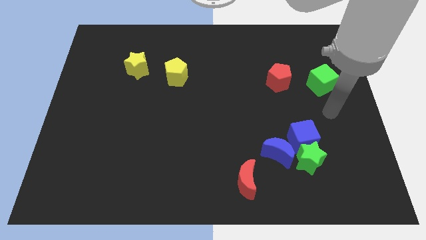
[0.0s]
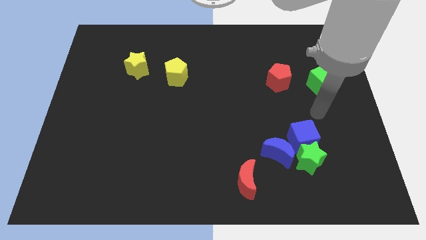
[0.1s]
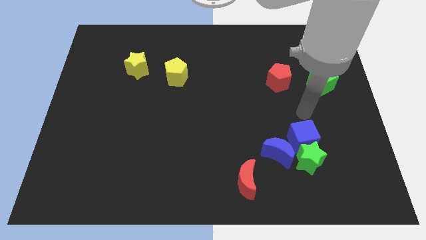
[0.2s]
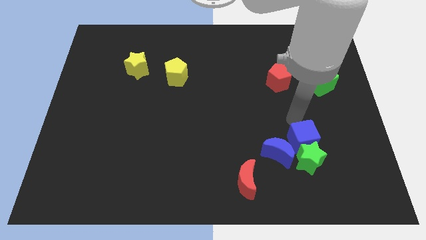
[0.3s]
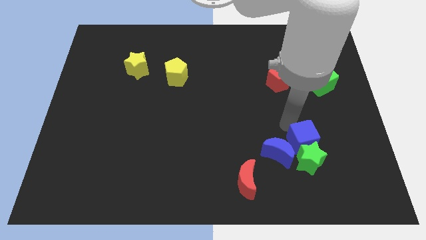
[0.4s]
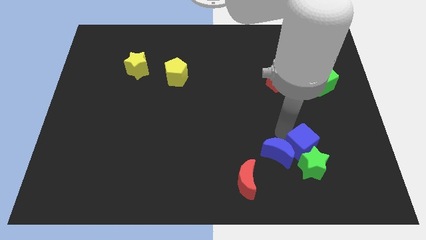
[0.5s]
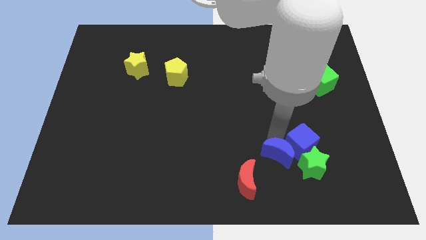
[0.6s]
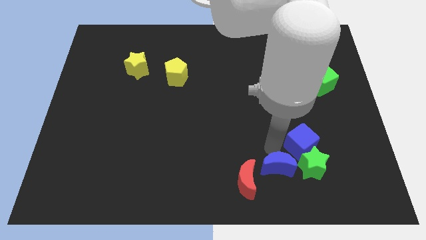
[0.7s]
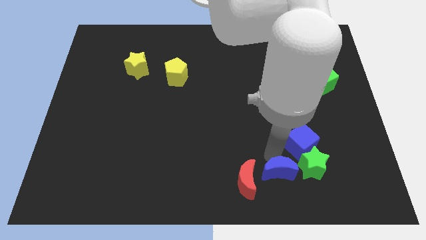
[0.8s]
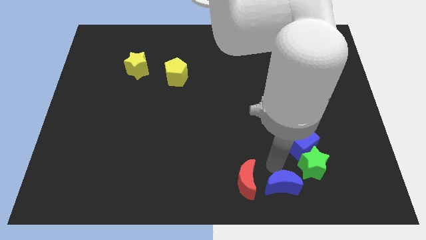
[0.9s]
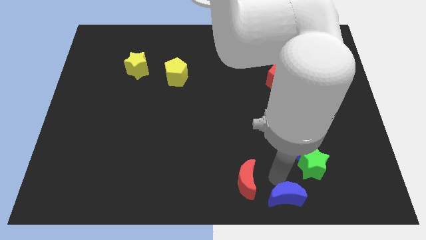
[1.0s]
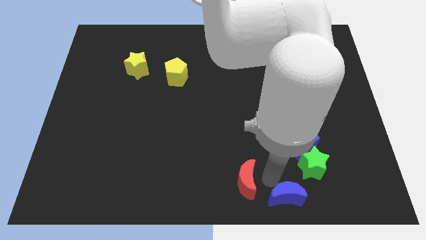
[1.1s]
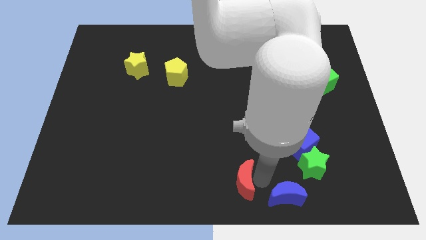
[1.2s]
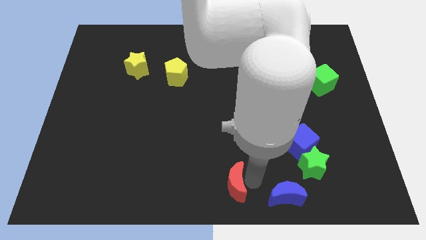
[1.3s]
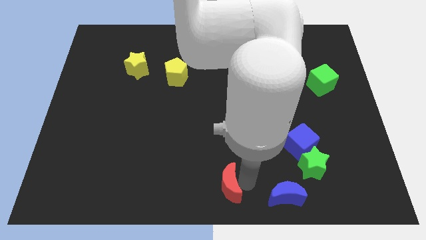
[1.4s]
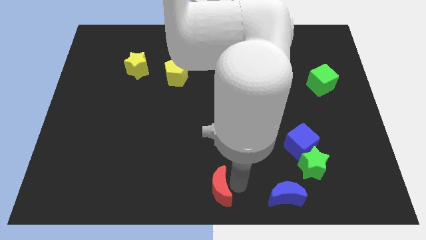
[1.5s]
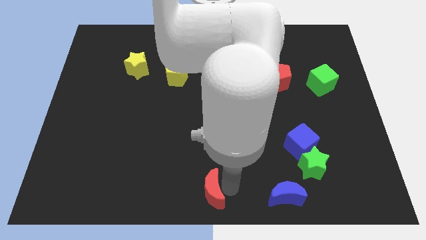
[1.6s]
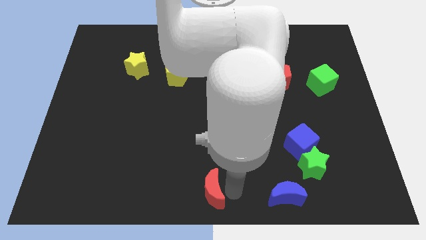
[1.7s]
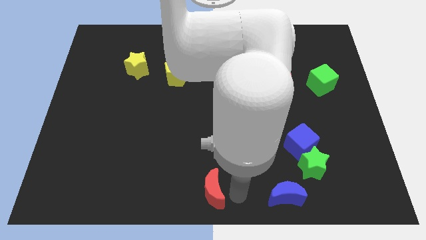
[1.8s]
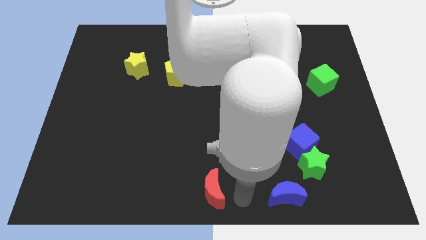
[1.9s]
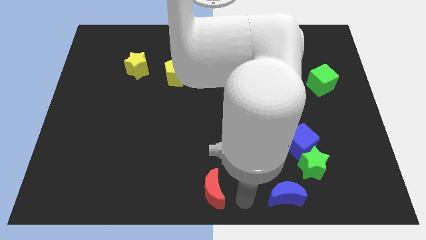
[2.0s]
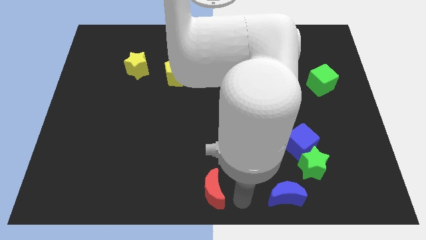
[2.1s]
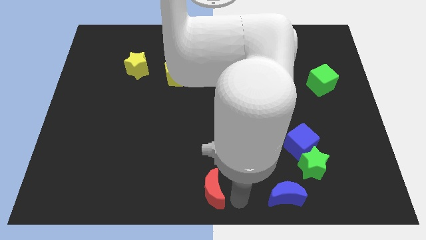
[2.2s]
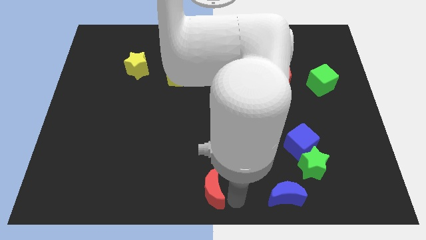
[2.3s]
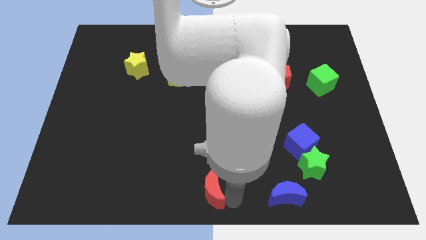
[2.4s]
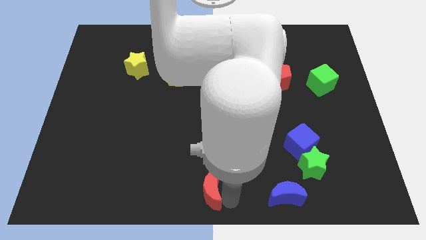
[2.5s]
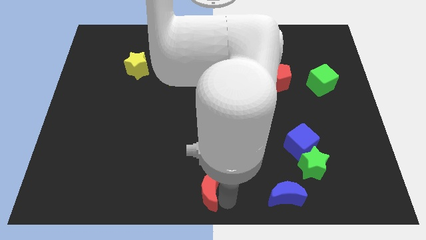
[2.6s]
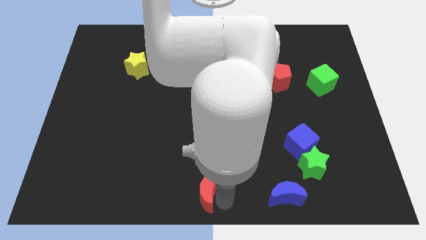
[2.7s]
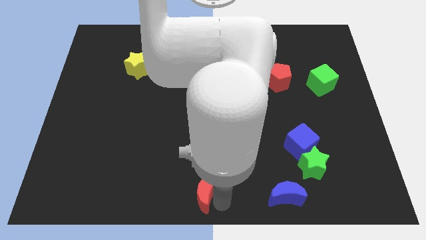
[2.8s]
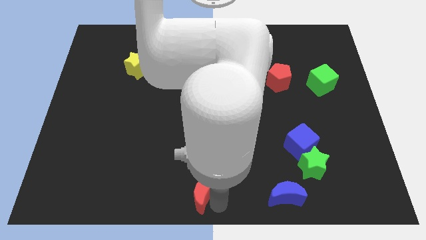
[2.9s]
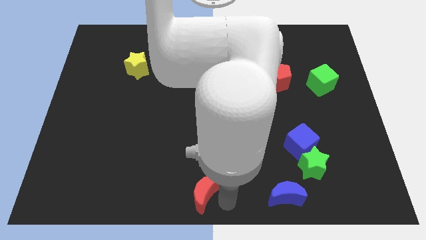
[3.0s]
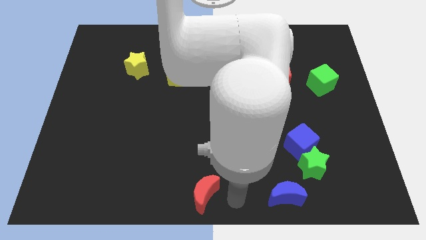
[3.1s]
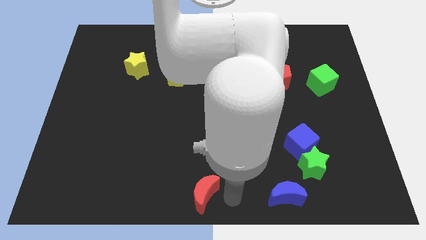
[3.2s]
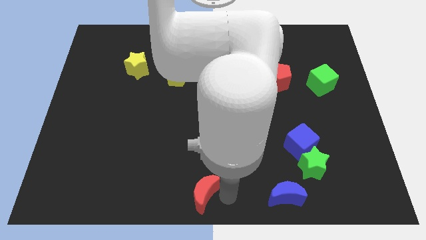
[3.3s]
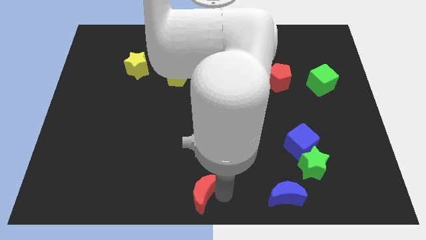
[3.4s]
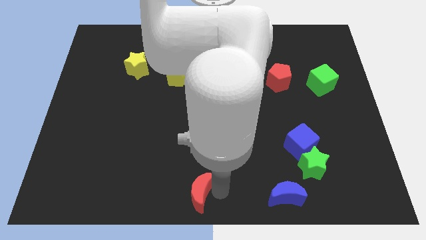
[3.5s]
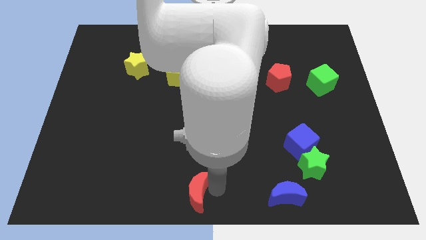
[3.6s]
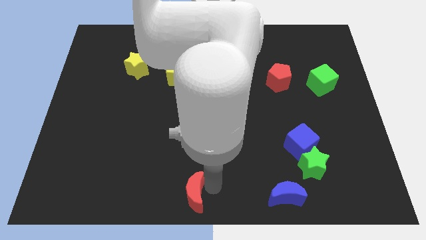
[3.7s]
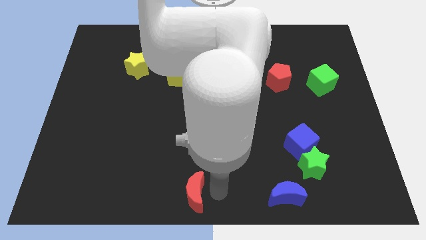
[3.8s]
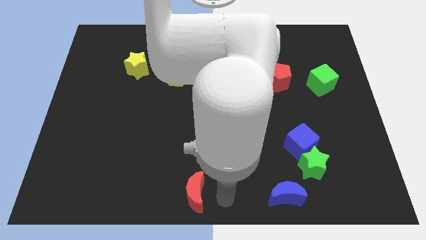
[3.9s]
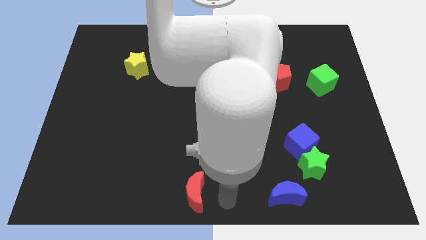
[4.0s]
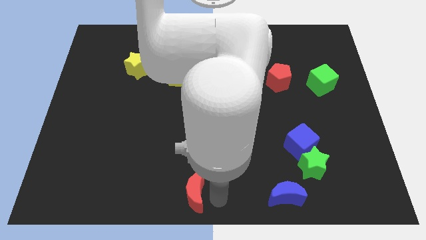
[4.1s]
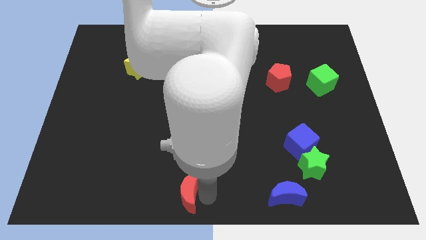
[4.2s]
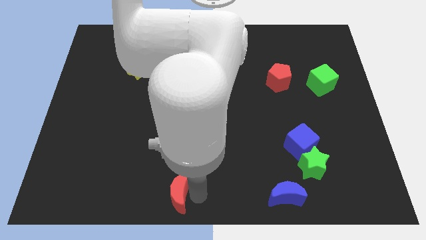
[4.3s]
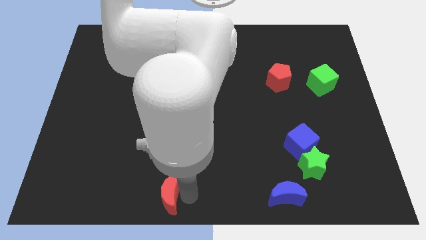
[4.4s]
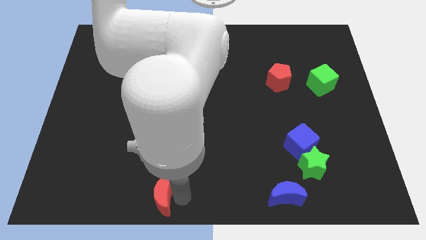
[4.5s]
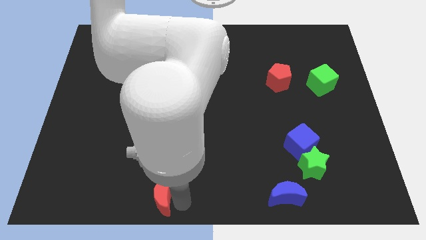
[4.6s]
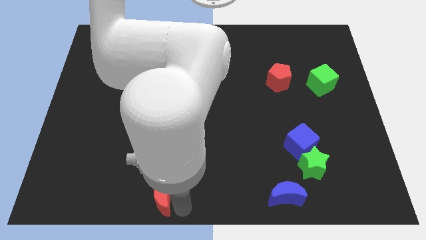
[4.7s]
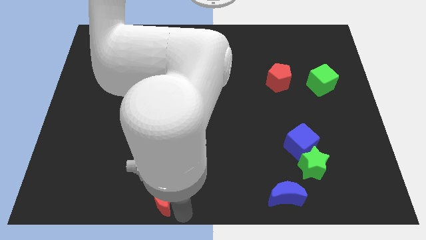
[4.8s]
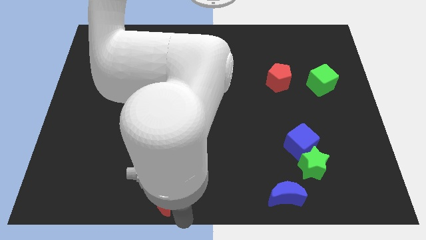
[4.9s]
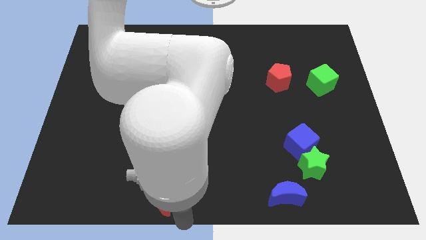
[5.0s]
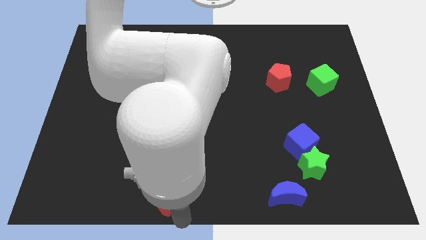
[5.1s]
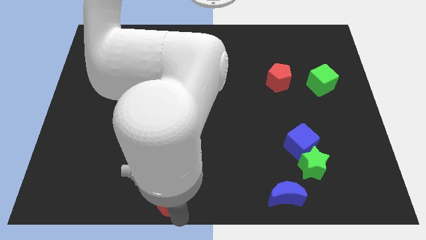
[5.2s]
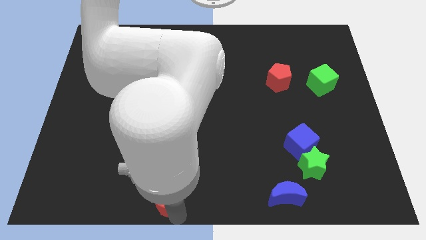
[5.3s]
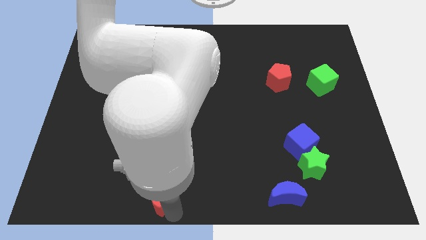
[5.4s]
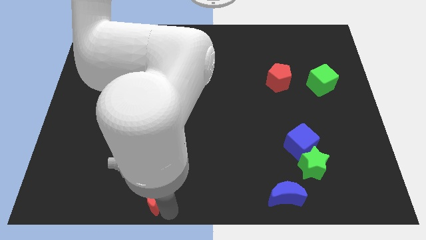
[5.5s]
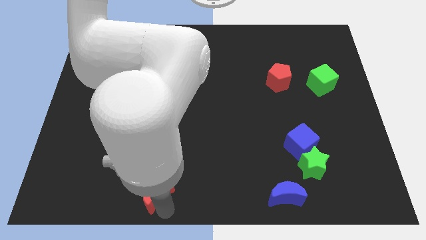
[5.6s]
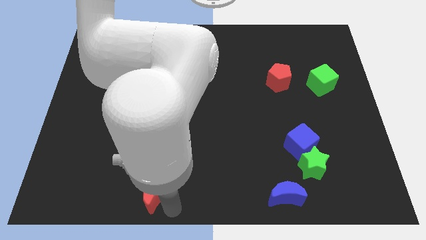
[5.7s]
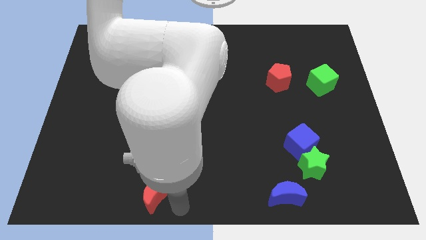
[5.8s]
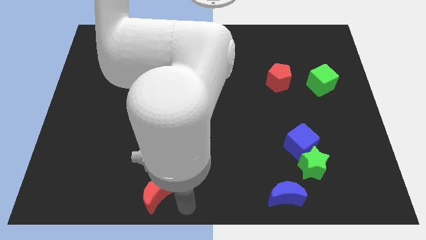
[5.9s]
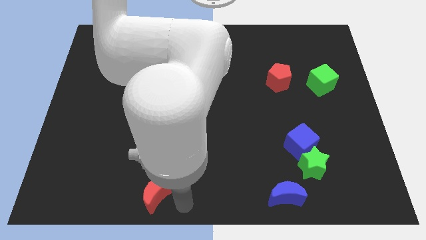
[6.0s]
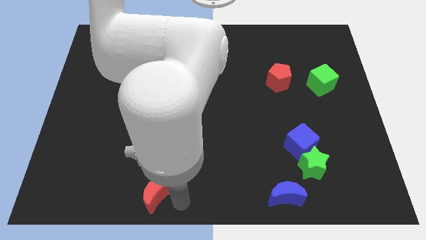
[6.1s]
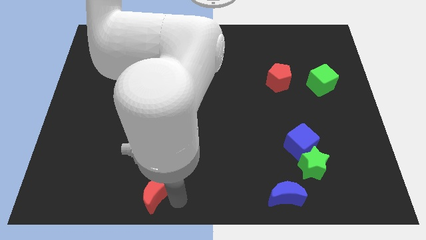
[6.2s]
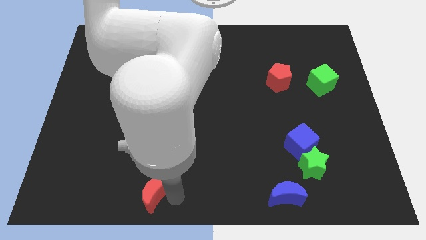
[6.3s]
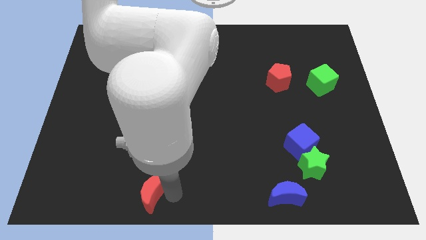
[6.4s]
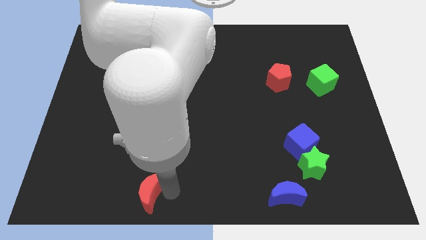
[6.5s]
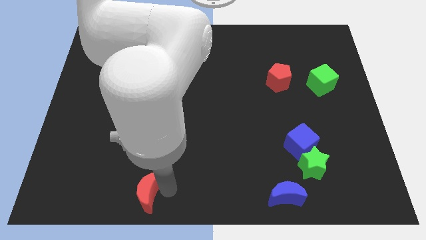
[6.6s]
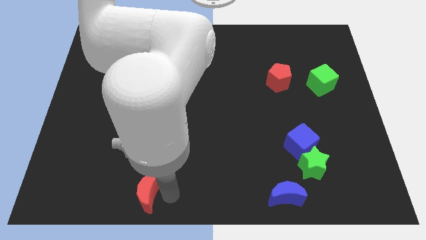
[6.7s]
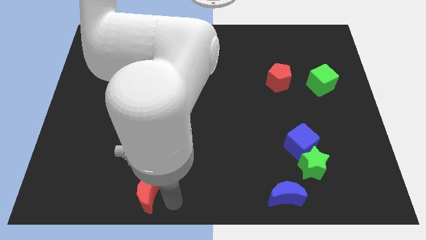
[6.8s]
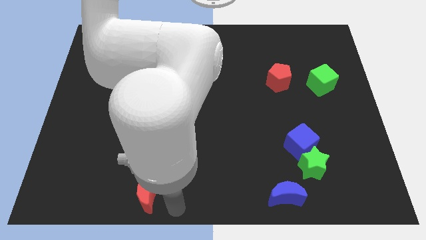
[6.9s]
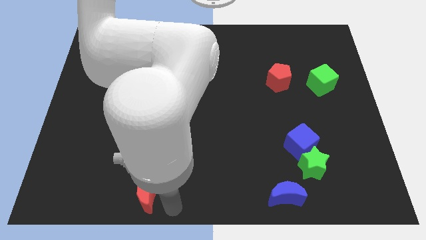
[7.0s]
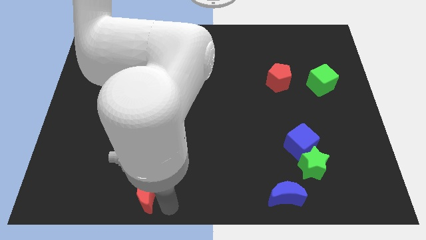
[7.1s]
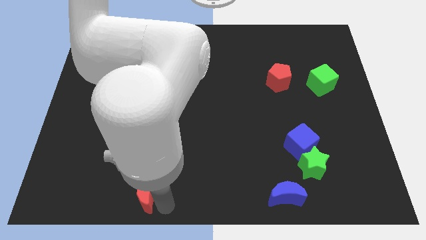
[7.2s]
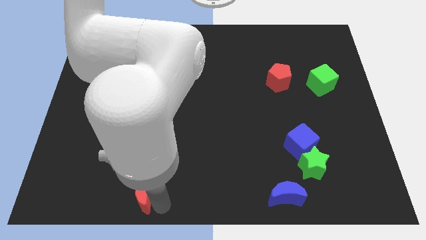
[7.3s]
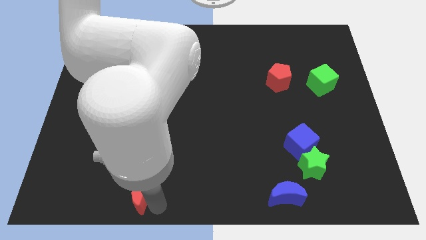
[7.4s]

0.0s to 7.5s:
move the red moon left

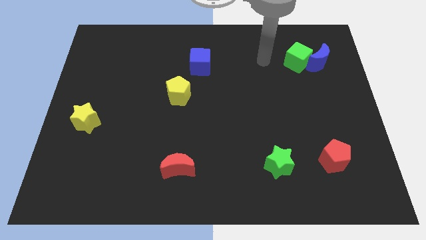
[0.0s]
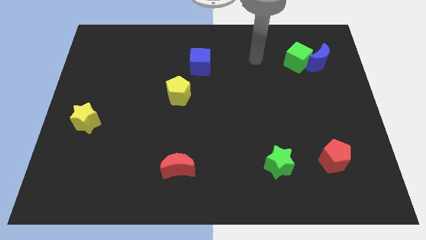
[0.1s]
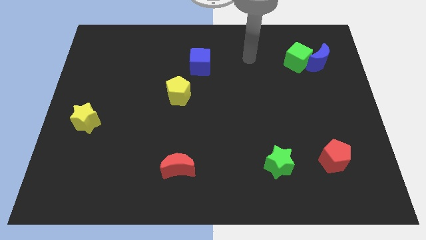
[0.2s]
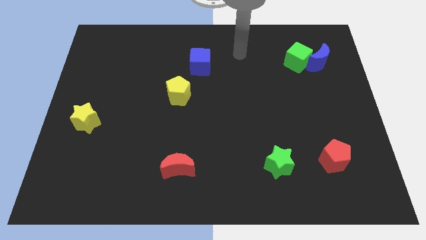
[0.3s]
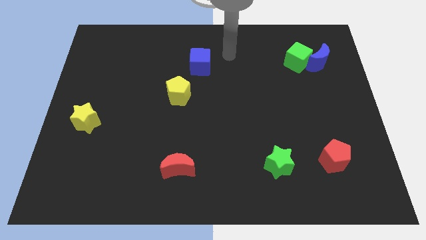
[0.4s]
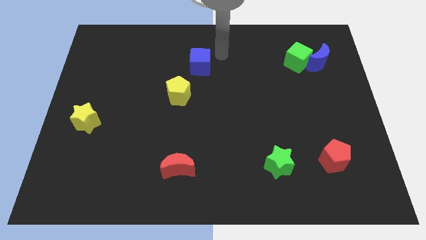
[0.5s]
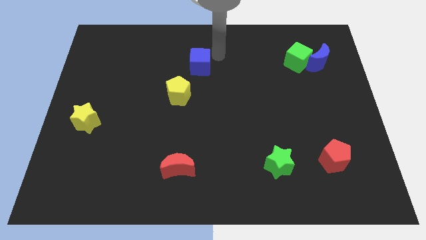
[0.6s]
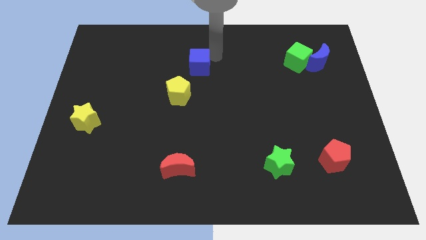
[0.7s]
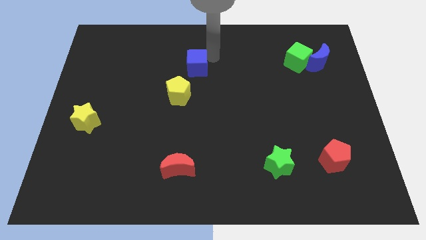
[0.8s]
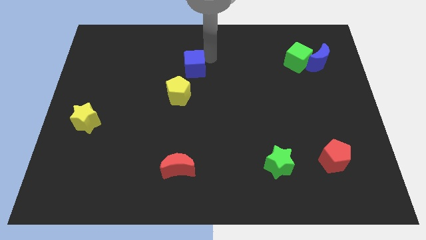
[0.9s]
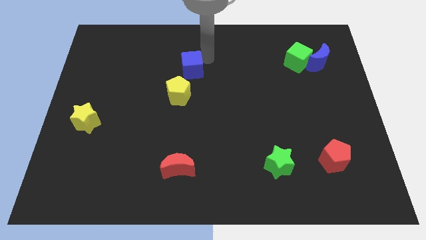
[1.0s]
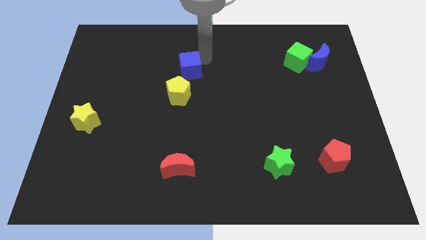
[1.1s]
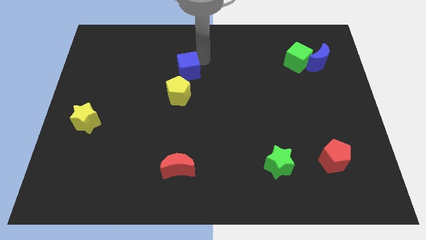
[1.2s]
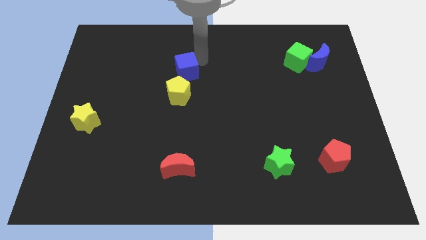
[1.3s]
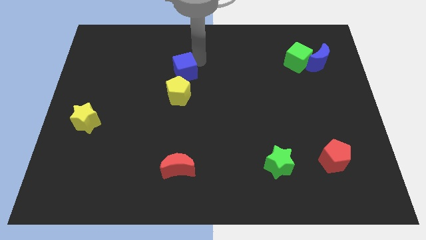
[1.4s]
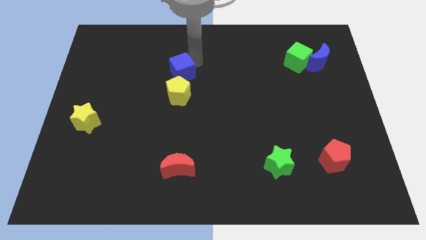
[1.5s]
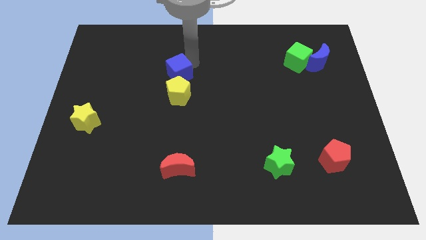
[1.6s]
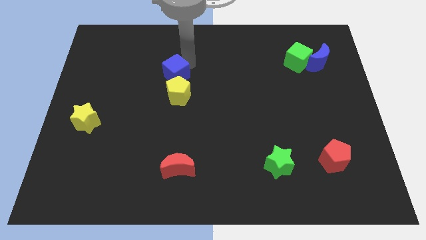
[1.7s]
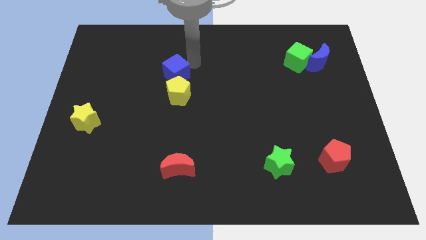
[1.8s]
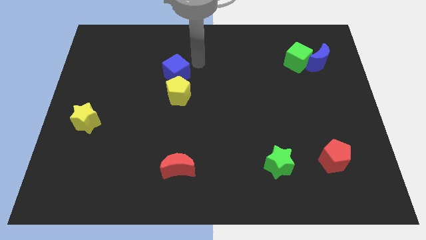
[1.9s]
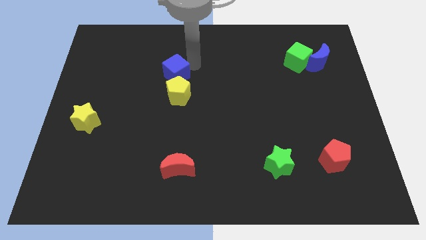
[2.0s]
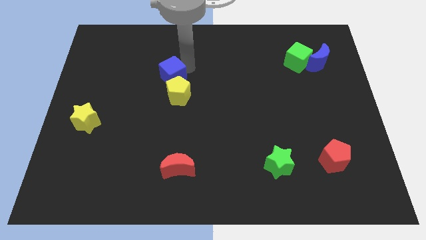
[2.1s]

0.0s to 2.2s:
slightly push the blue cube down and to the left diagonally
